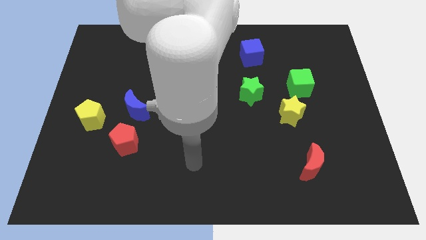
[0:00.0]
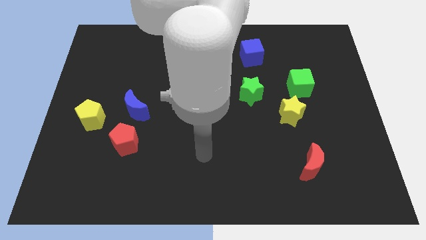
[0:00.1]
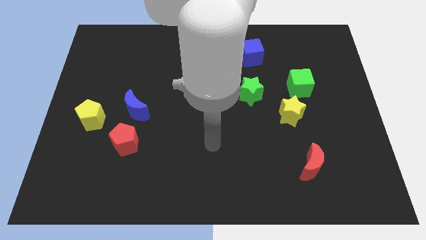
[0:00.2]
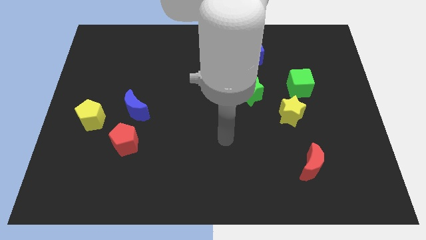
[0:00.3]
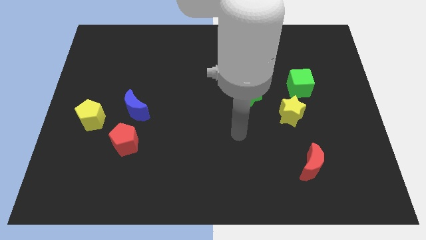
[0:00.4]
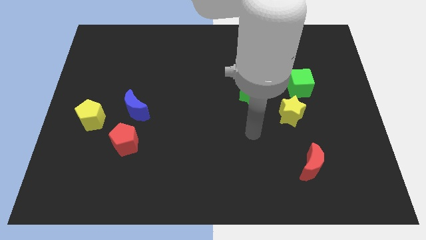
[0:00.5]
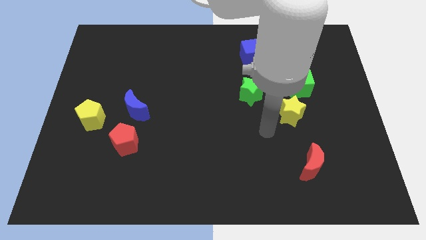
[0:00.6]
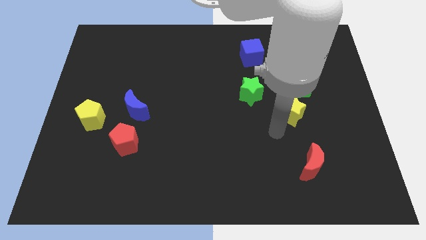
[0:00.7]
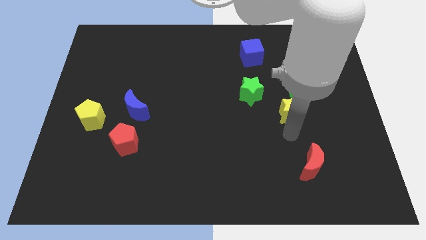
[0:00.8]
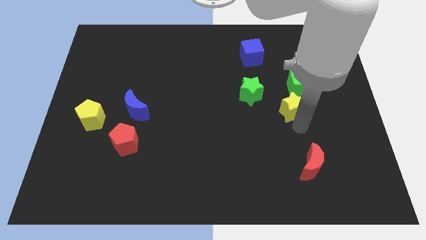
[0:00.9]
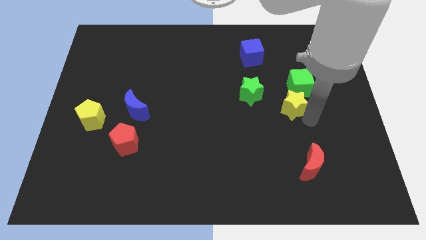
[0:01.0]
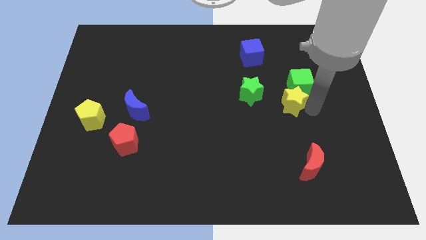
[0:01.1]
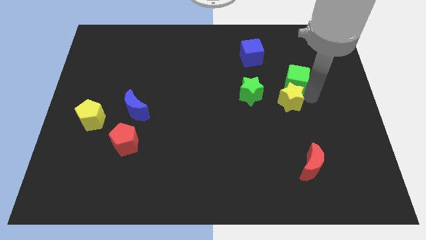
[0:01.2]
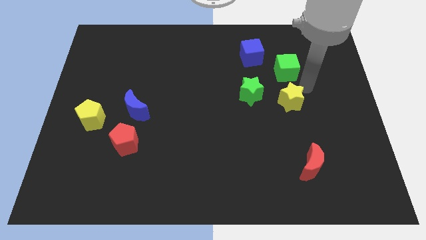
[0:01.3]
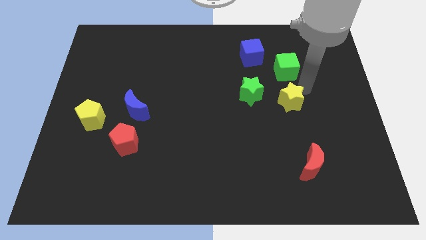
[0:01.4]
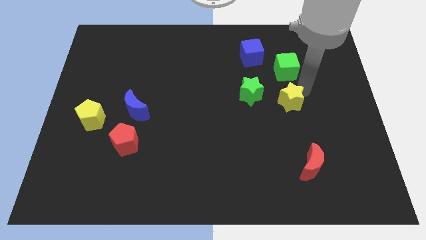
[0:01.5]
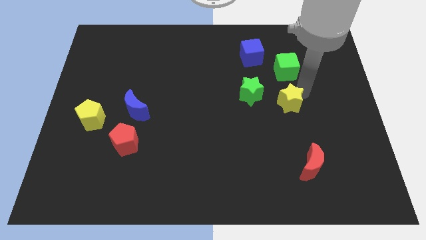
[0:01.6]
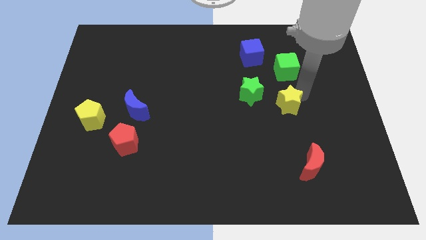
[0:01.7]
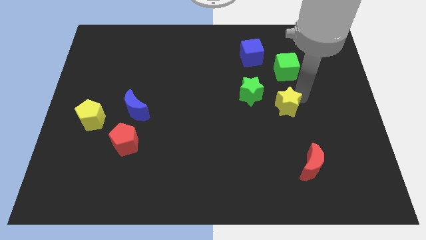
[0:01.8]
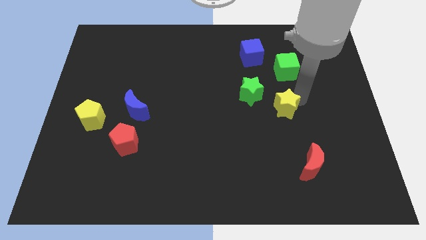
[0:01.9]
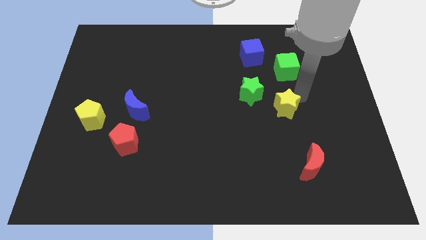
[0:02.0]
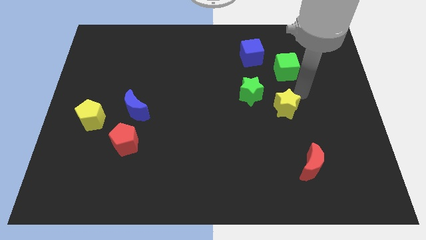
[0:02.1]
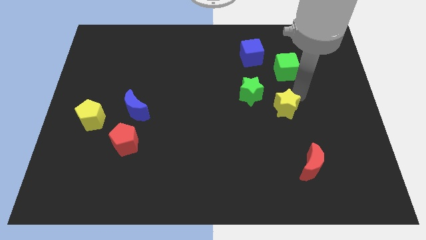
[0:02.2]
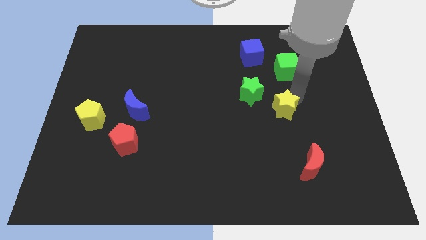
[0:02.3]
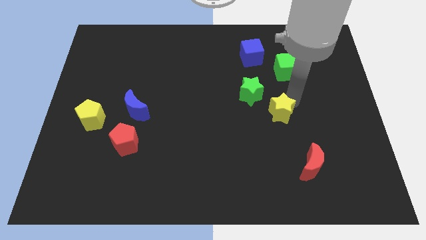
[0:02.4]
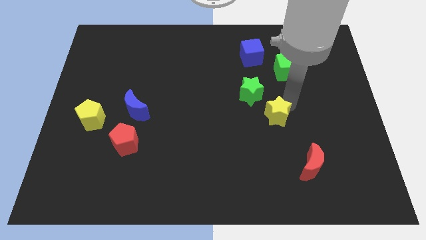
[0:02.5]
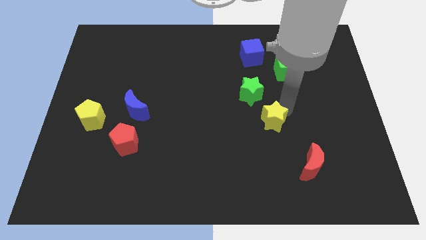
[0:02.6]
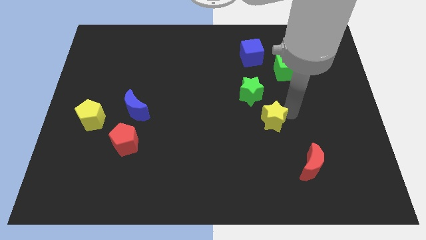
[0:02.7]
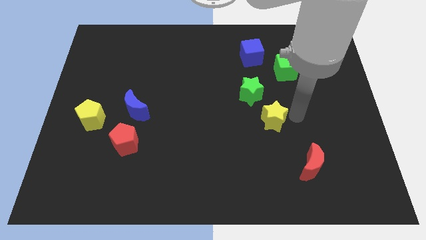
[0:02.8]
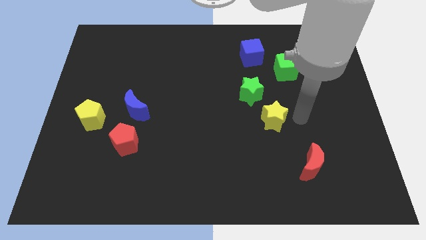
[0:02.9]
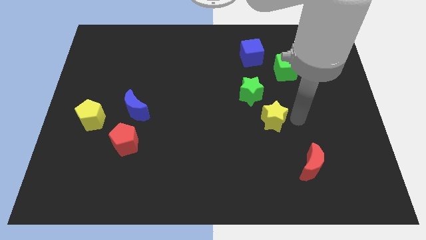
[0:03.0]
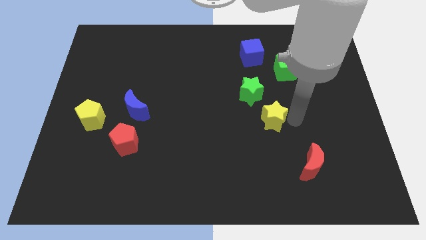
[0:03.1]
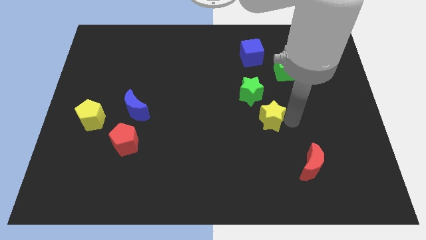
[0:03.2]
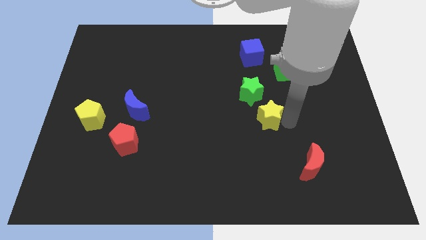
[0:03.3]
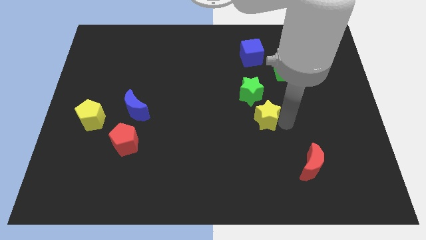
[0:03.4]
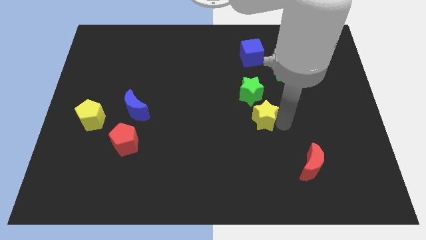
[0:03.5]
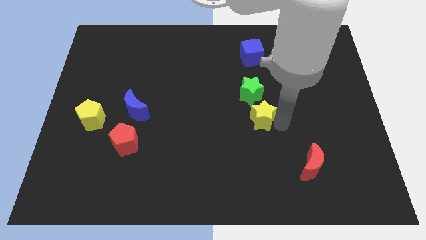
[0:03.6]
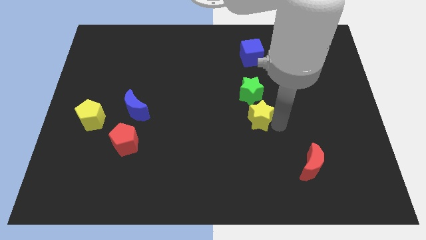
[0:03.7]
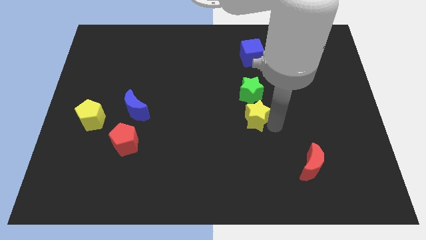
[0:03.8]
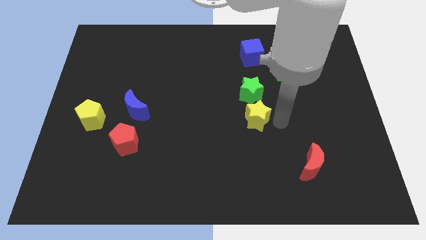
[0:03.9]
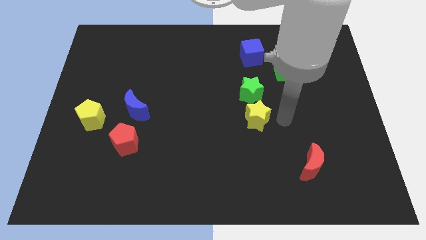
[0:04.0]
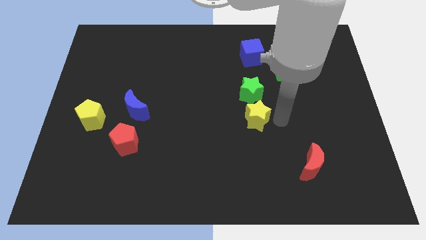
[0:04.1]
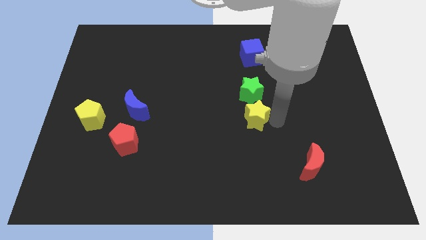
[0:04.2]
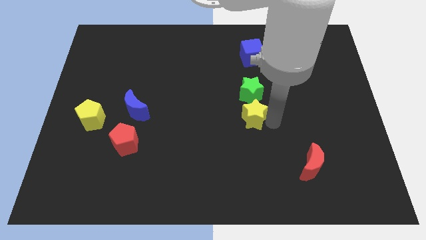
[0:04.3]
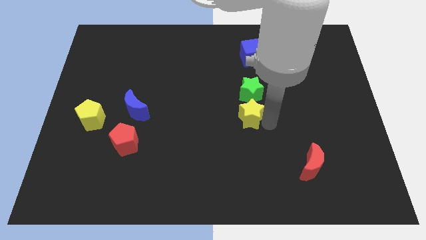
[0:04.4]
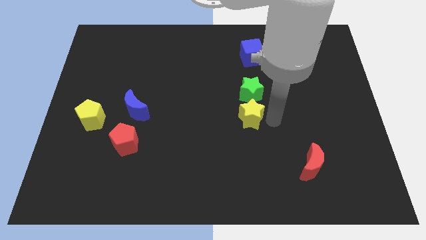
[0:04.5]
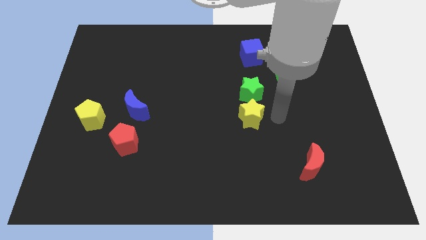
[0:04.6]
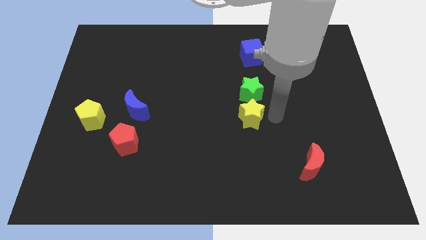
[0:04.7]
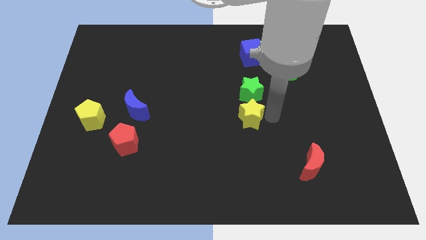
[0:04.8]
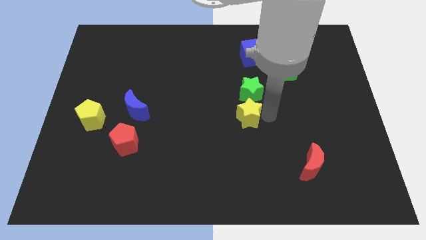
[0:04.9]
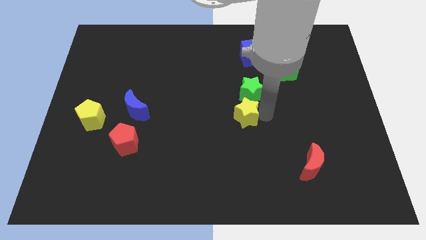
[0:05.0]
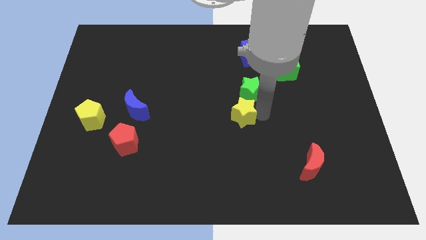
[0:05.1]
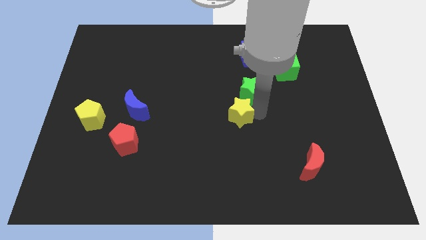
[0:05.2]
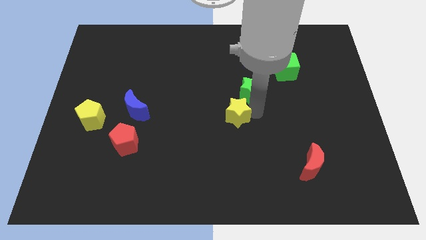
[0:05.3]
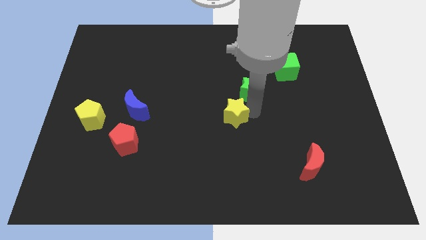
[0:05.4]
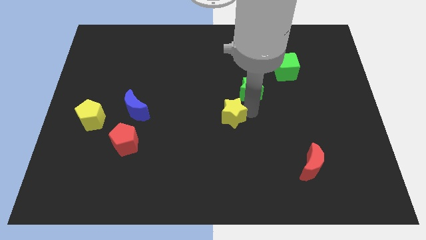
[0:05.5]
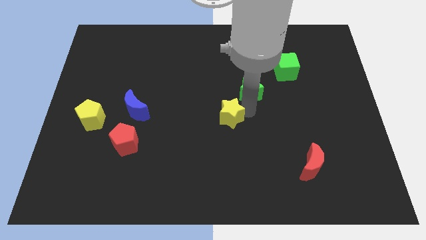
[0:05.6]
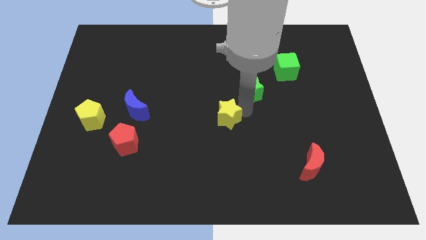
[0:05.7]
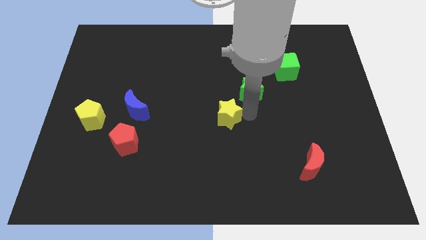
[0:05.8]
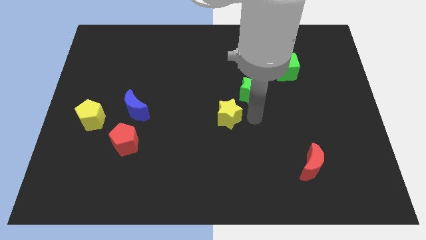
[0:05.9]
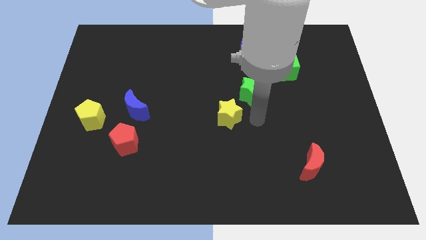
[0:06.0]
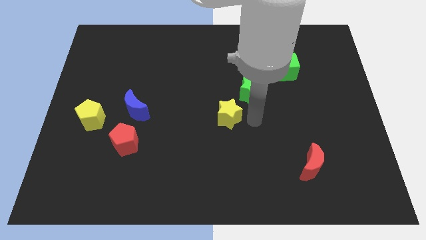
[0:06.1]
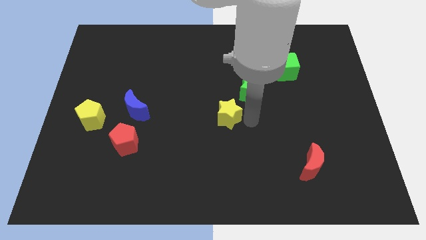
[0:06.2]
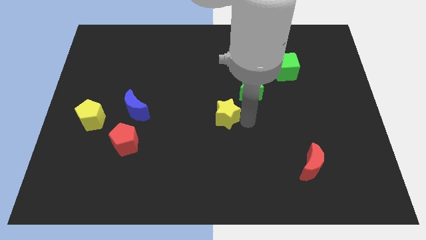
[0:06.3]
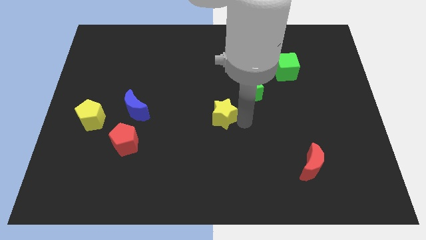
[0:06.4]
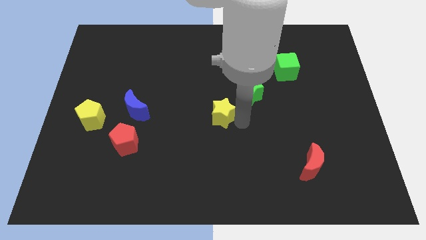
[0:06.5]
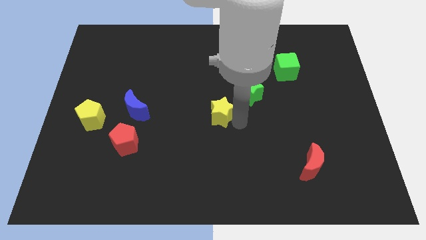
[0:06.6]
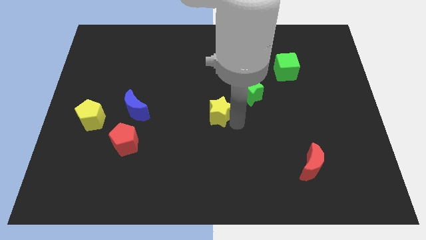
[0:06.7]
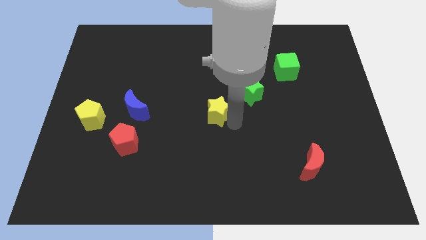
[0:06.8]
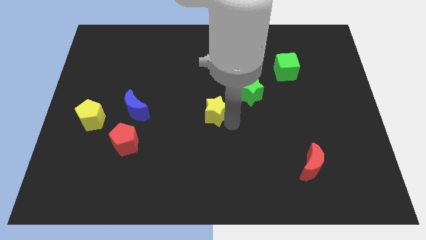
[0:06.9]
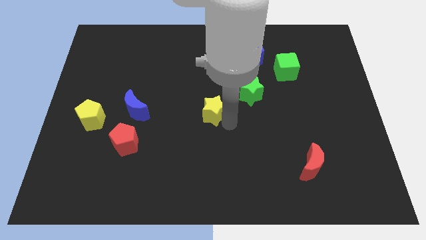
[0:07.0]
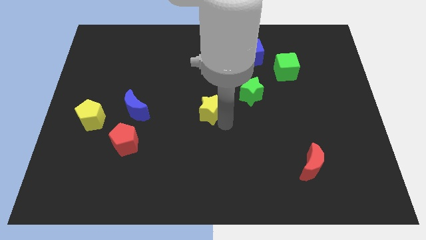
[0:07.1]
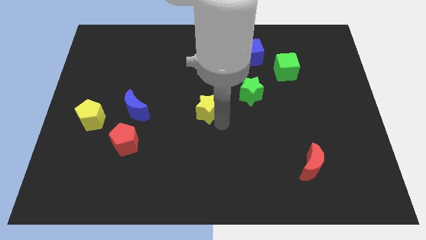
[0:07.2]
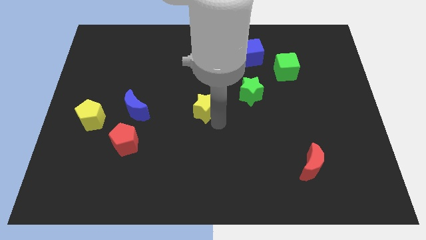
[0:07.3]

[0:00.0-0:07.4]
slide the yellow star to the right of the blue moon

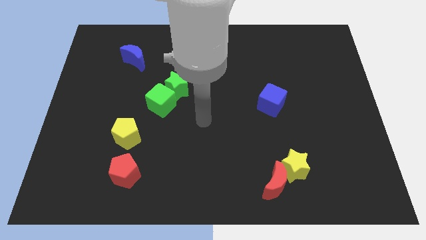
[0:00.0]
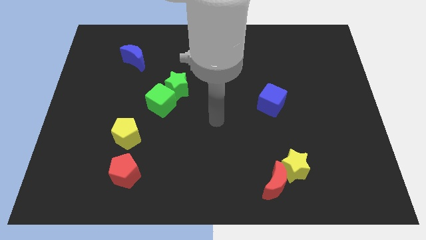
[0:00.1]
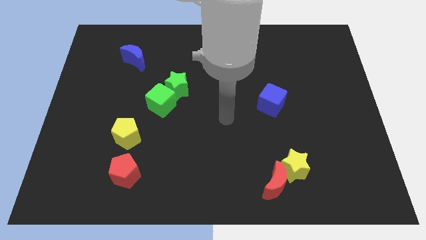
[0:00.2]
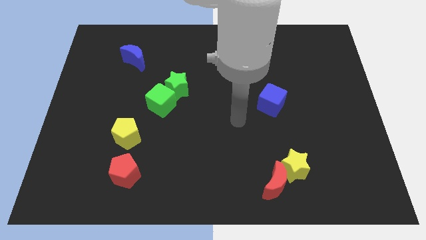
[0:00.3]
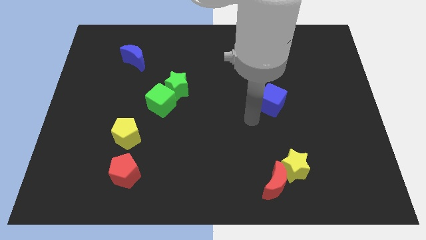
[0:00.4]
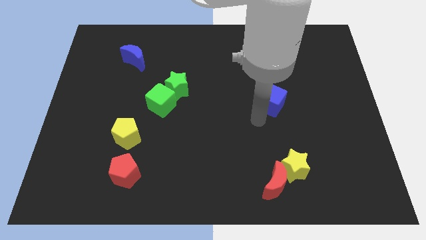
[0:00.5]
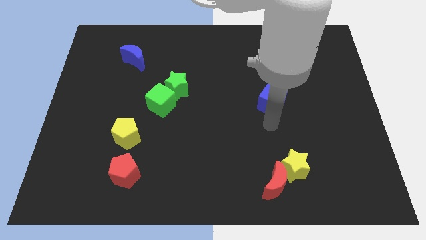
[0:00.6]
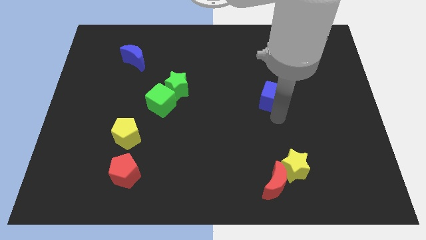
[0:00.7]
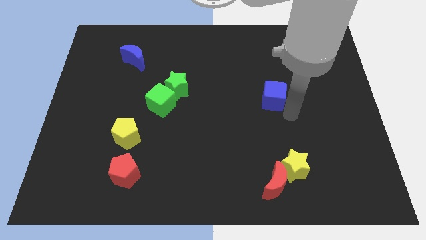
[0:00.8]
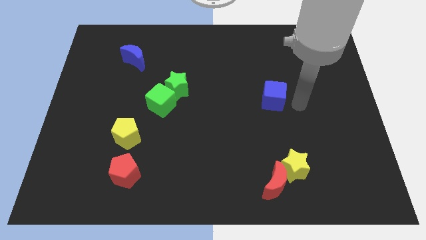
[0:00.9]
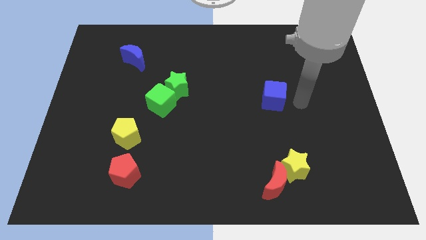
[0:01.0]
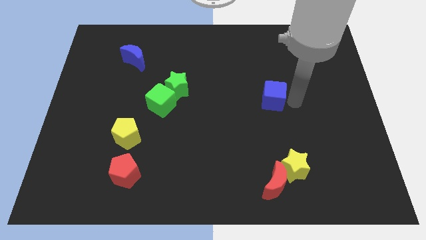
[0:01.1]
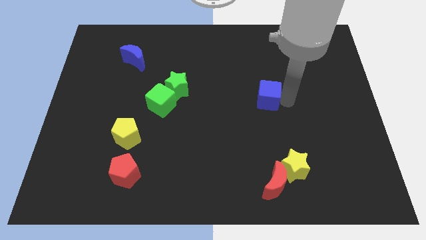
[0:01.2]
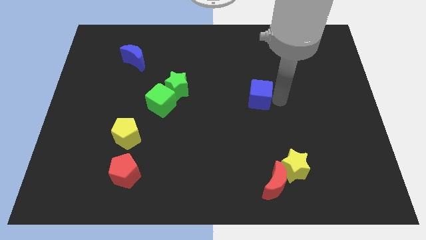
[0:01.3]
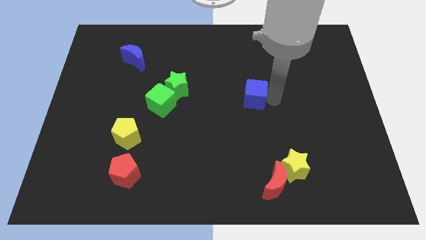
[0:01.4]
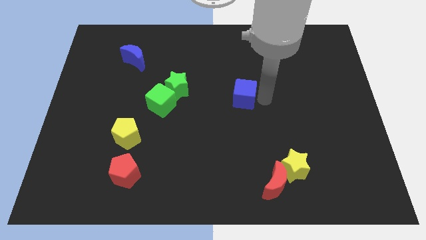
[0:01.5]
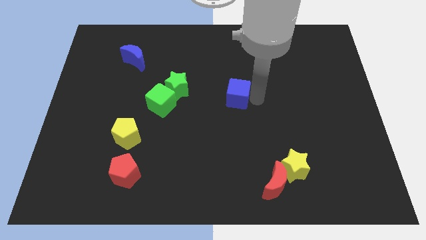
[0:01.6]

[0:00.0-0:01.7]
move the blue cube just right of the green star
